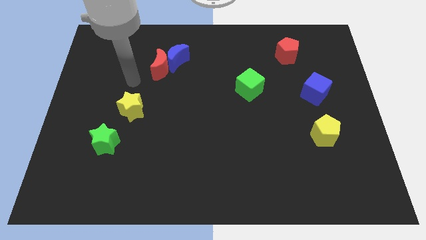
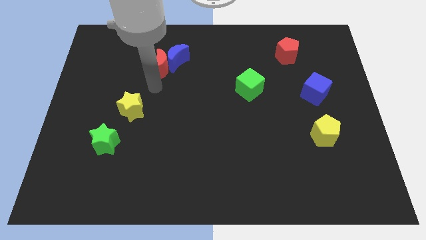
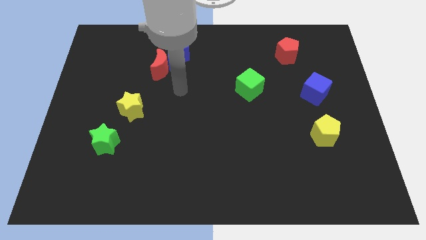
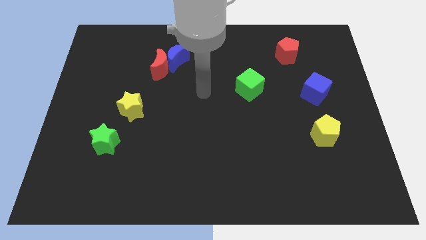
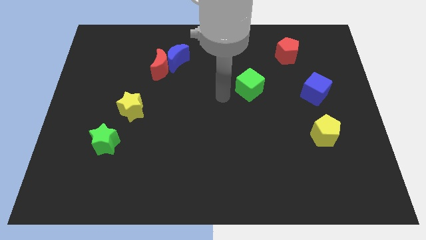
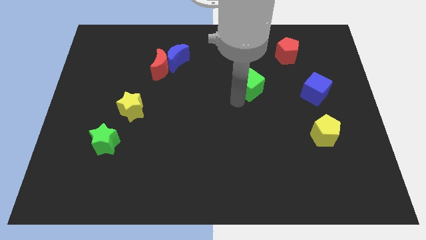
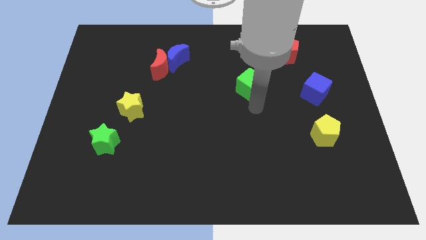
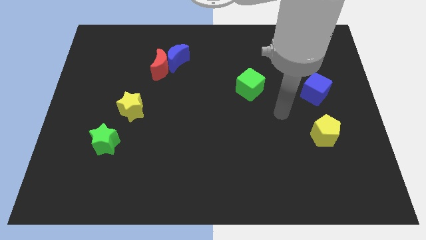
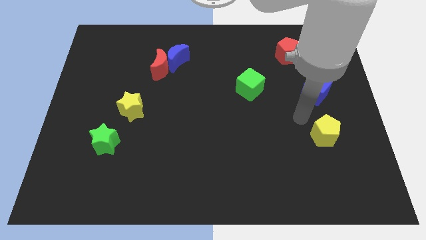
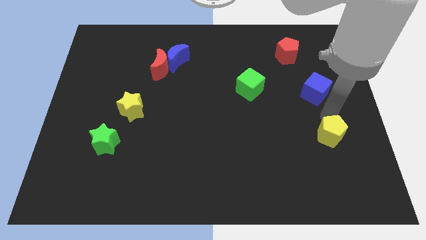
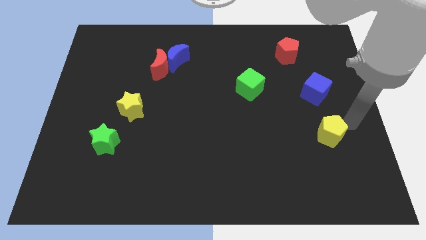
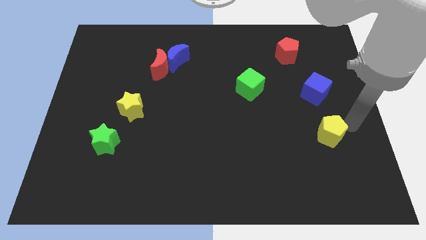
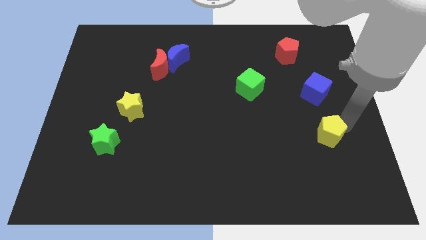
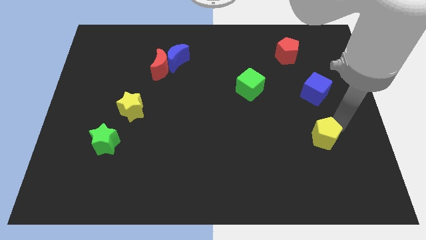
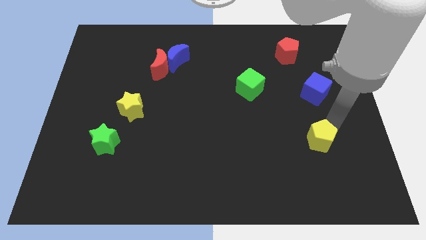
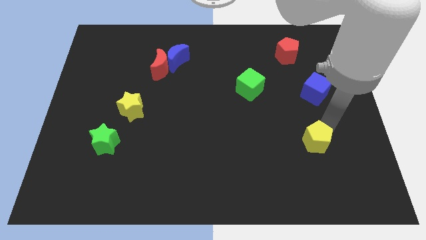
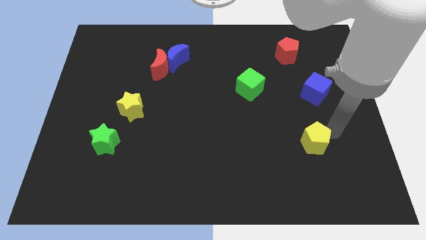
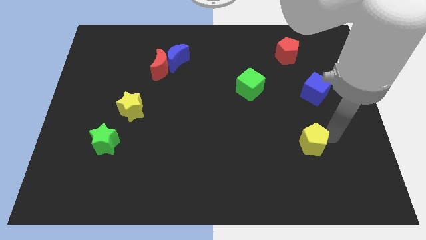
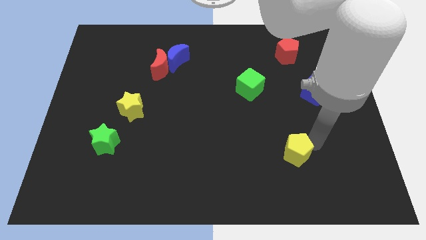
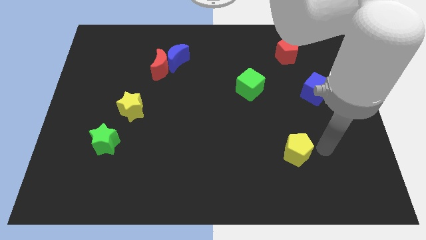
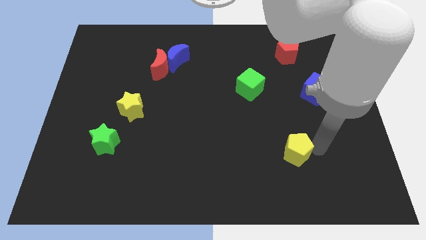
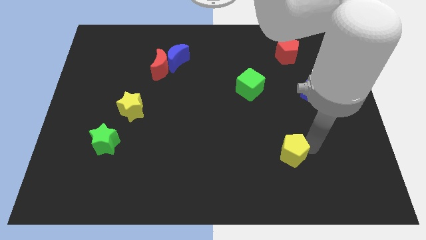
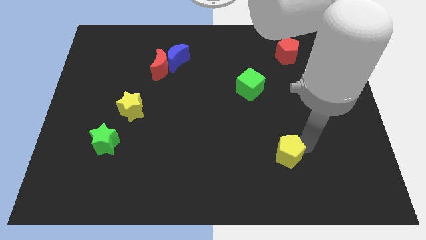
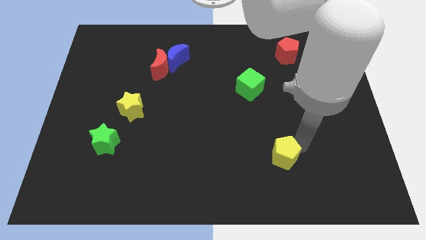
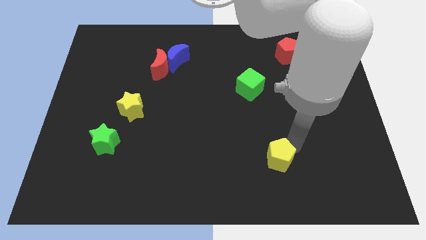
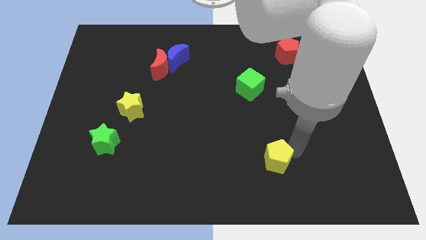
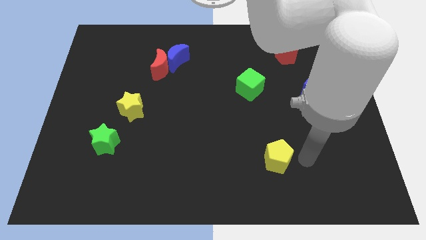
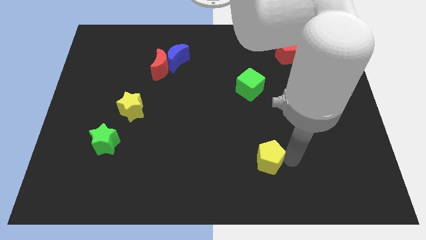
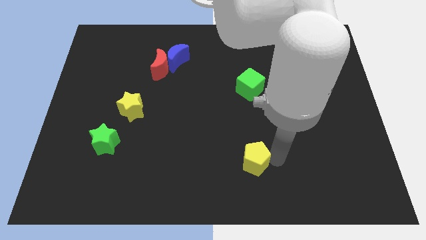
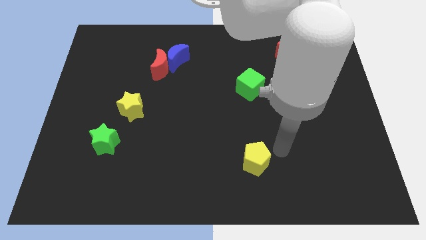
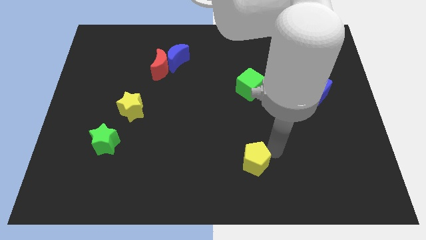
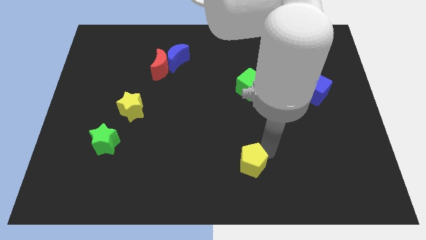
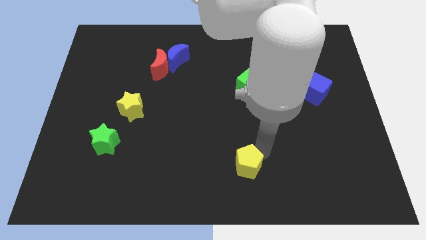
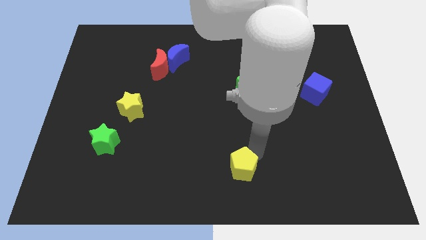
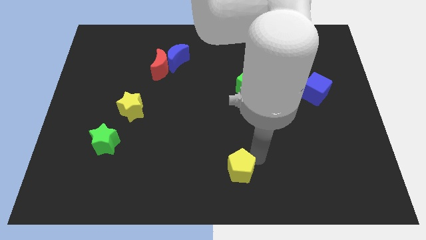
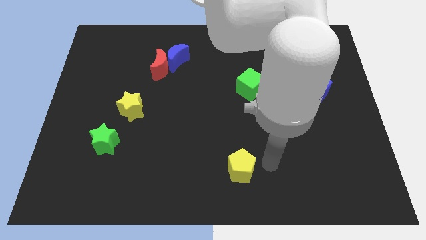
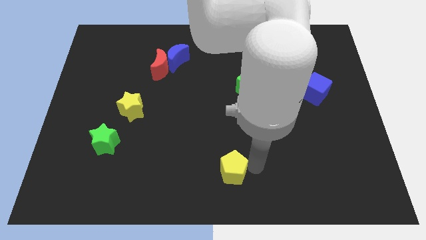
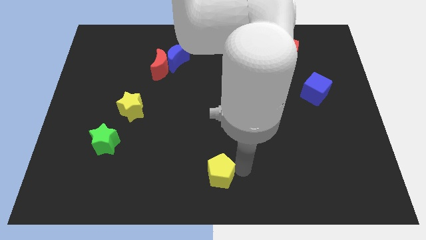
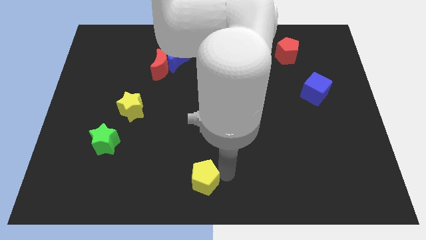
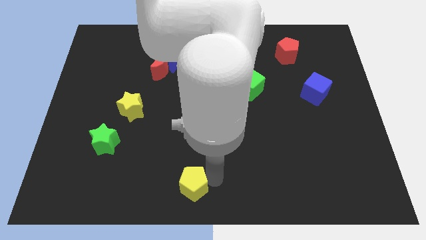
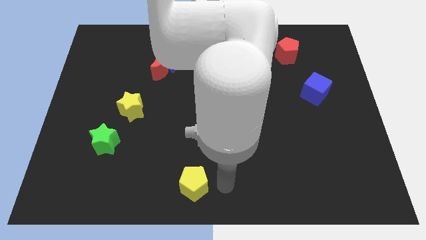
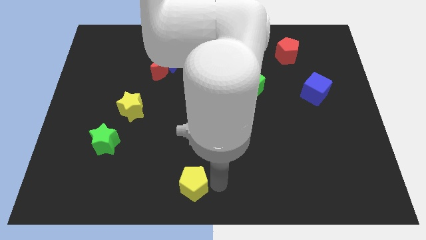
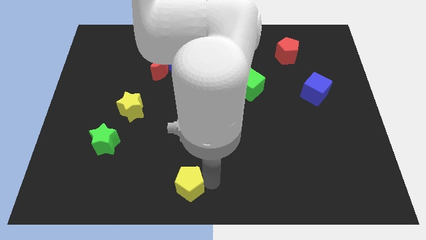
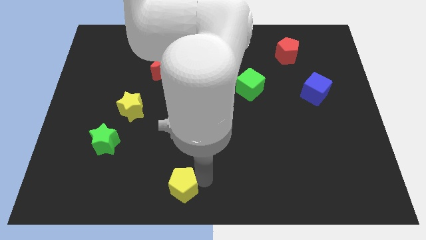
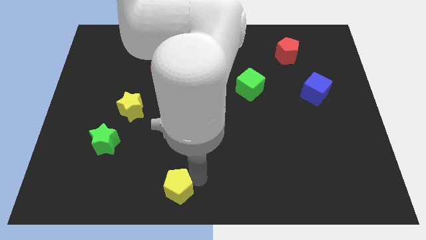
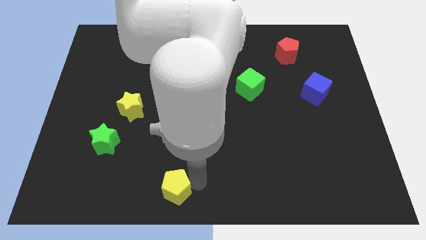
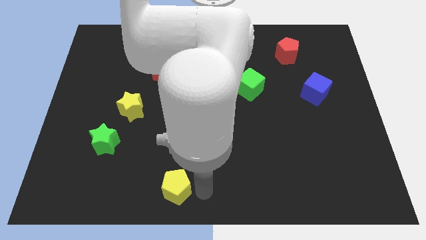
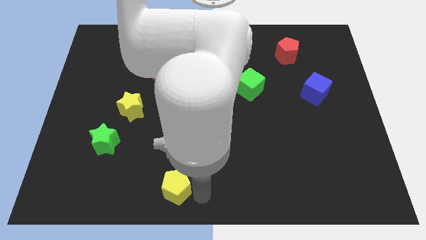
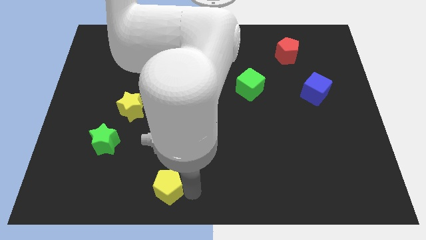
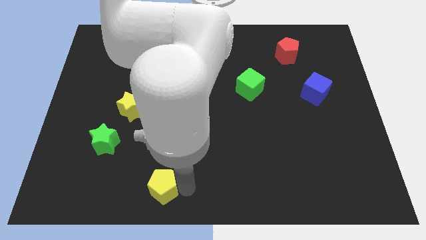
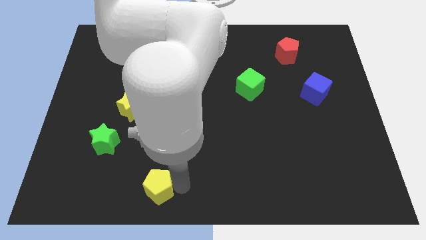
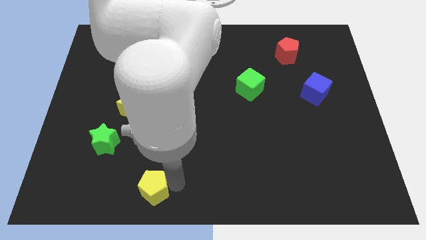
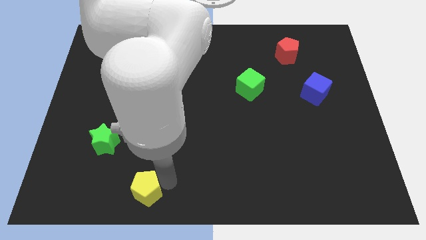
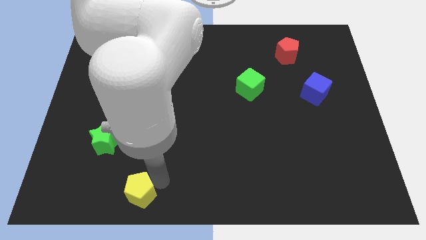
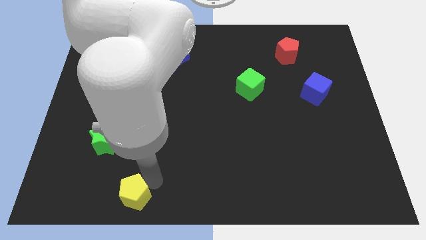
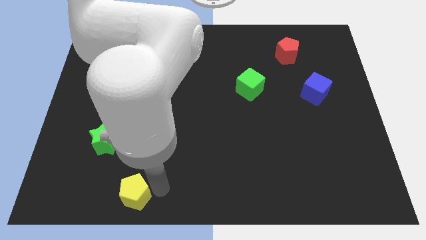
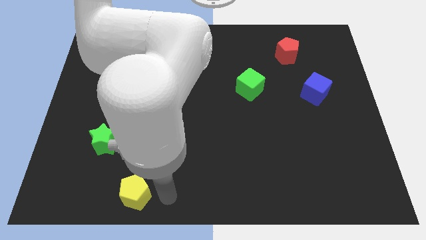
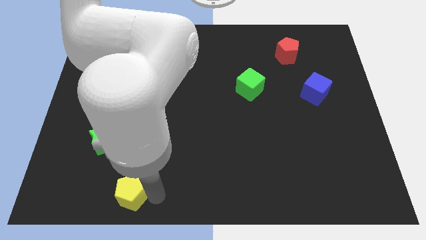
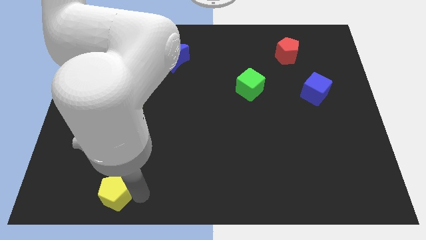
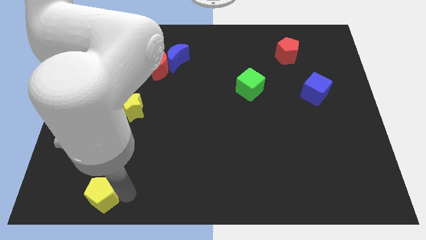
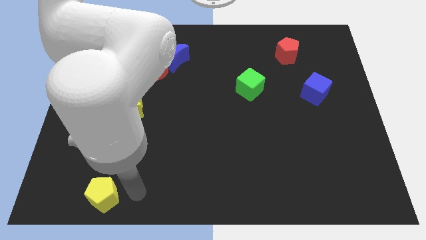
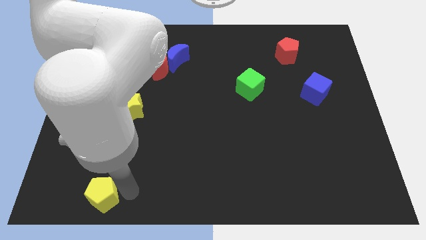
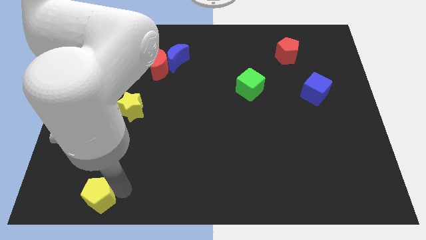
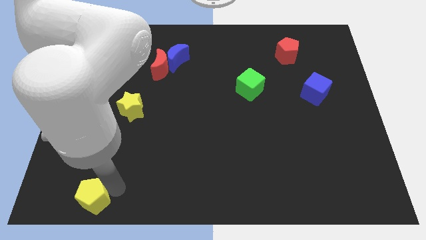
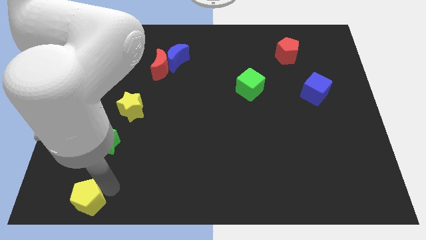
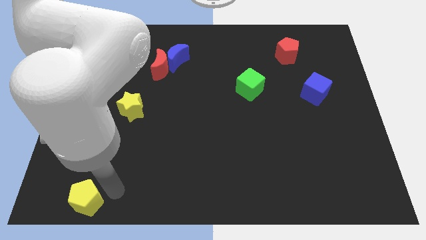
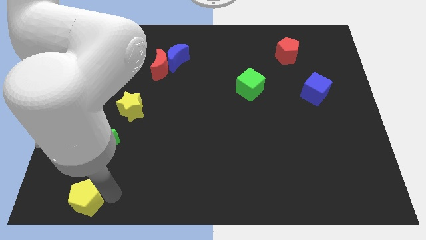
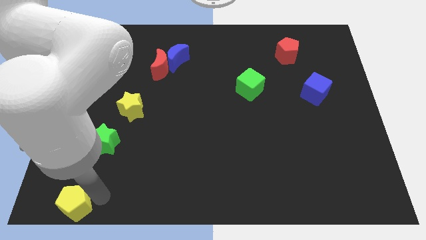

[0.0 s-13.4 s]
put the yellow pentagon to the lower left corner
